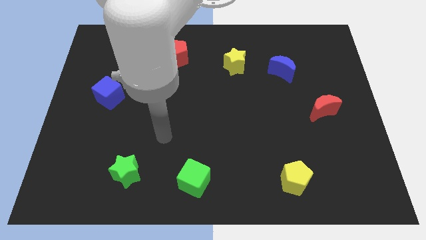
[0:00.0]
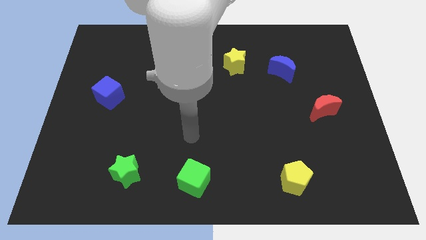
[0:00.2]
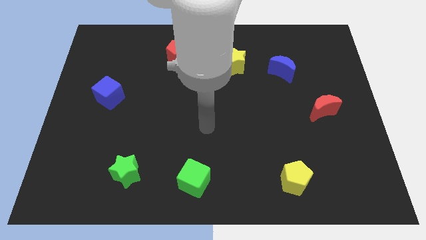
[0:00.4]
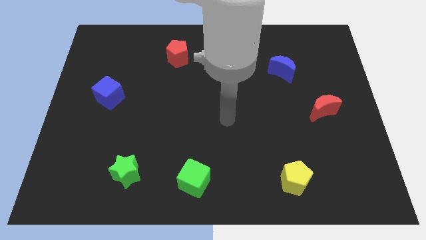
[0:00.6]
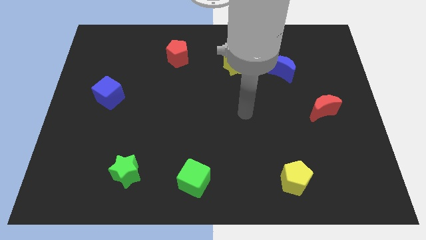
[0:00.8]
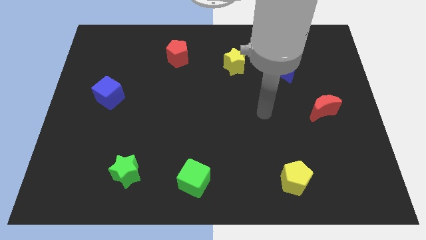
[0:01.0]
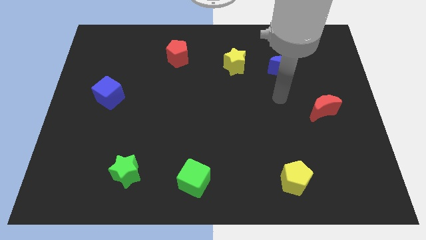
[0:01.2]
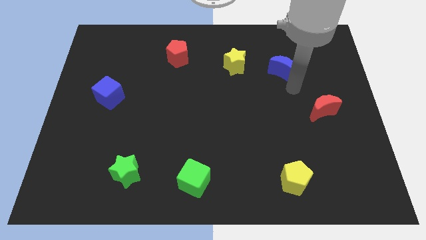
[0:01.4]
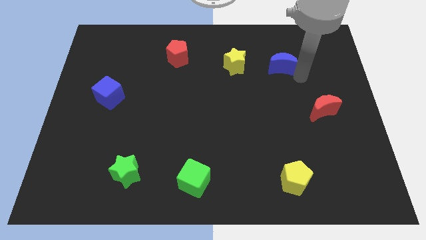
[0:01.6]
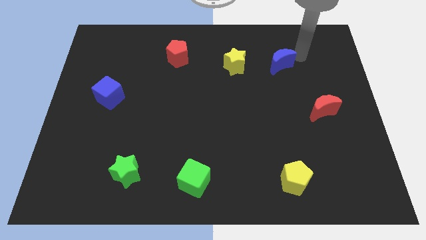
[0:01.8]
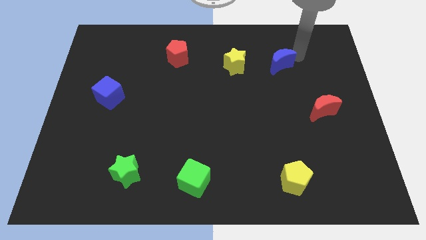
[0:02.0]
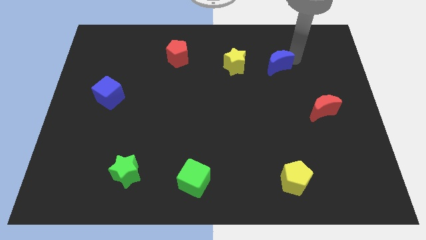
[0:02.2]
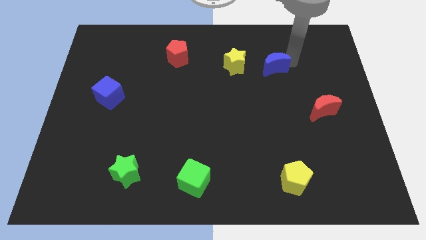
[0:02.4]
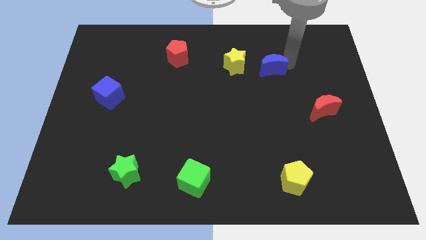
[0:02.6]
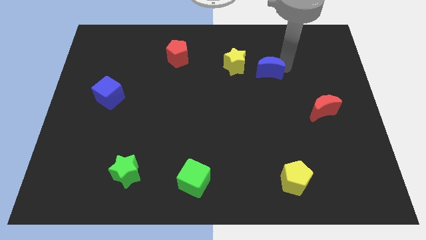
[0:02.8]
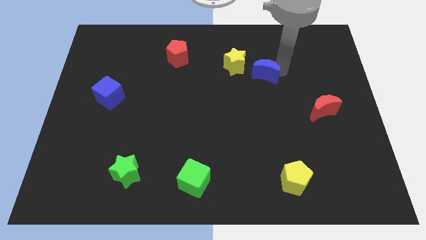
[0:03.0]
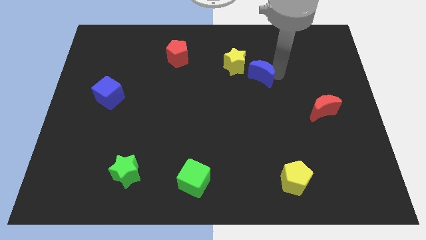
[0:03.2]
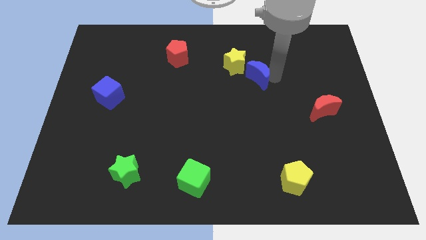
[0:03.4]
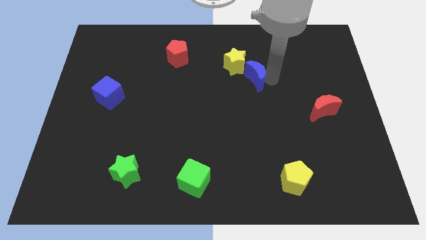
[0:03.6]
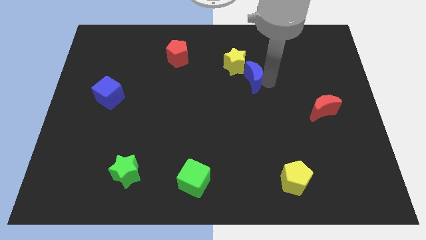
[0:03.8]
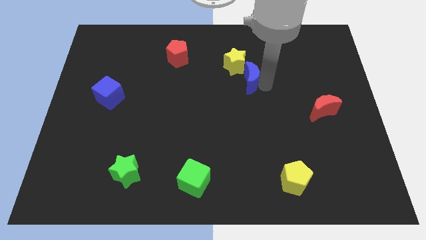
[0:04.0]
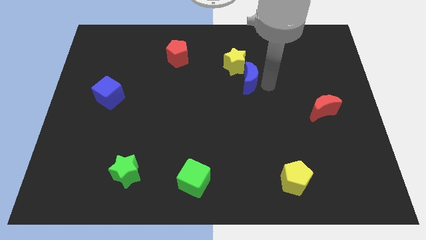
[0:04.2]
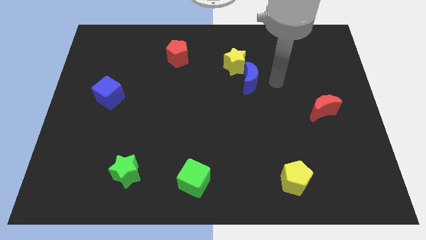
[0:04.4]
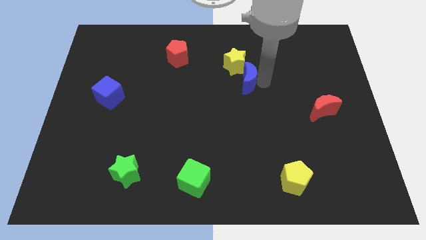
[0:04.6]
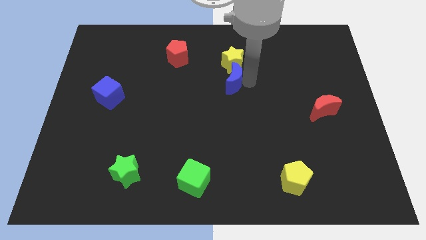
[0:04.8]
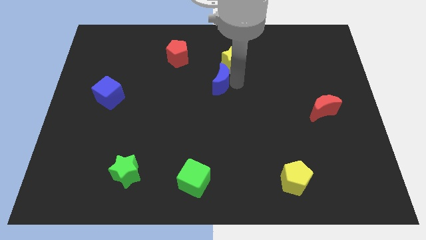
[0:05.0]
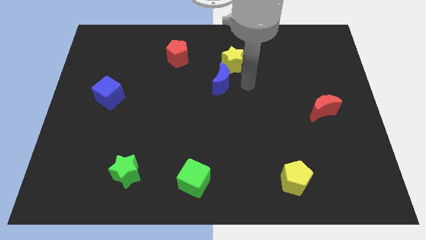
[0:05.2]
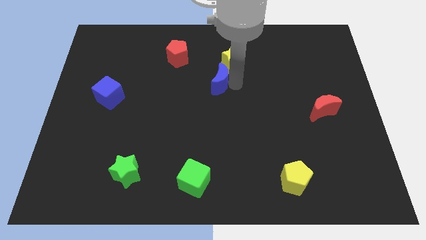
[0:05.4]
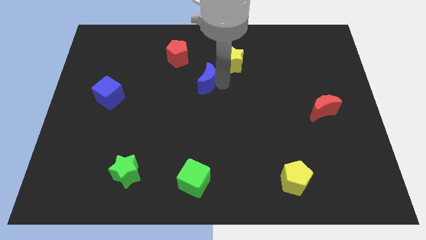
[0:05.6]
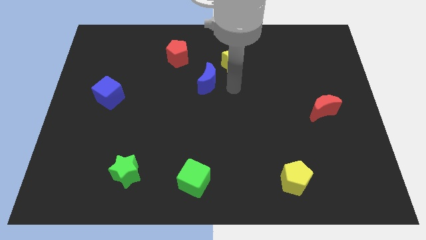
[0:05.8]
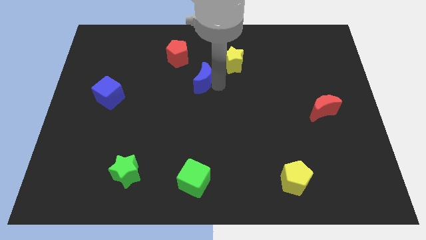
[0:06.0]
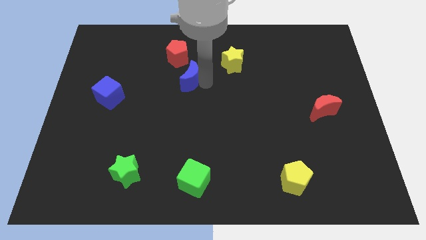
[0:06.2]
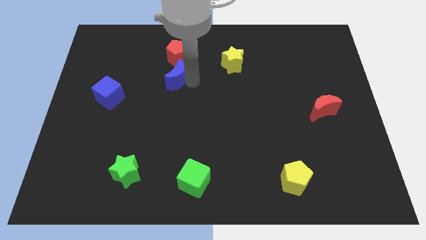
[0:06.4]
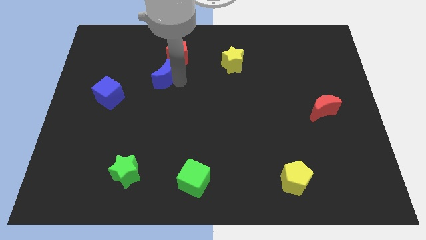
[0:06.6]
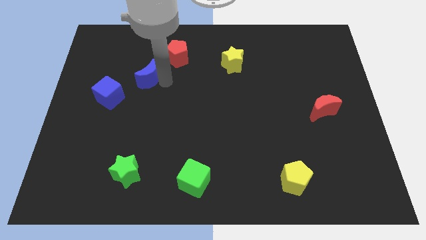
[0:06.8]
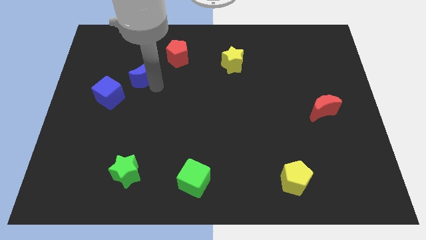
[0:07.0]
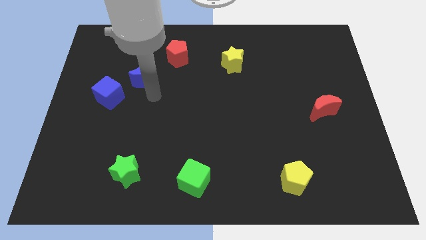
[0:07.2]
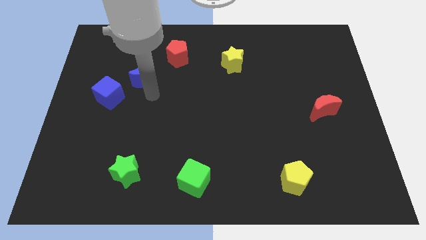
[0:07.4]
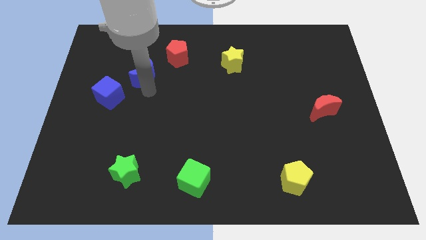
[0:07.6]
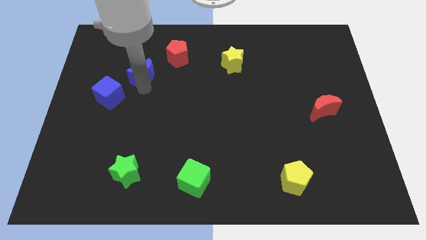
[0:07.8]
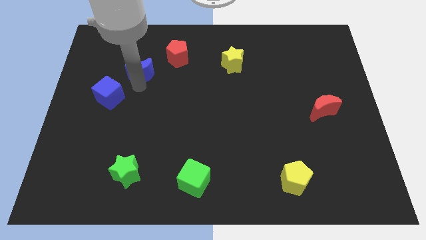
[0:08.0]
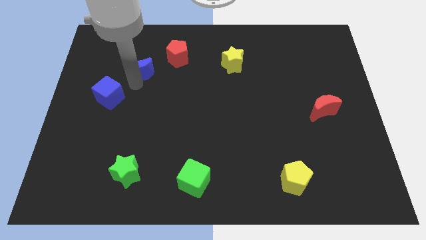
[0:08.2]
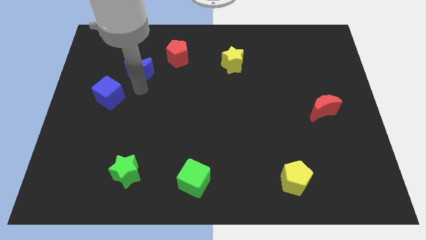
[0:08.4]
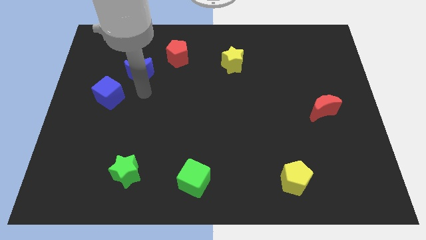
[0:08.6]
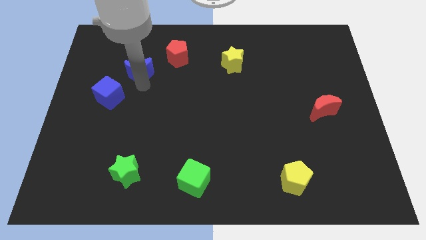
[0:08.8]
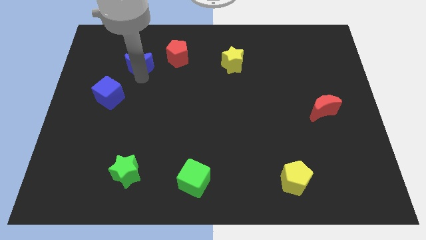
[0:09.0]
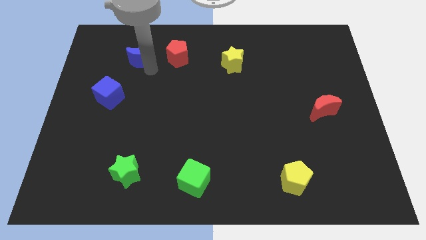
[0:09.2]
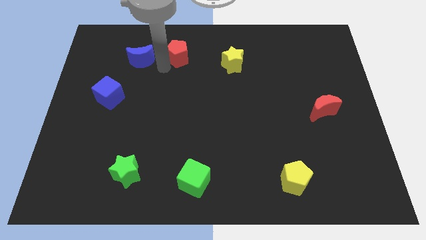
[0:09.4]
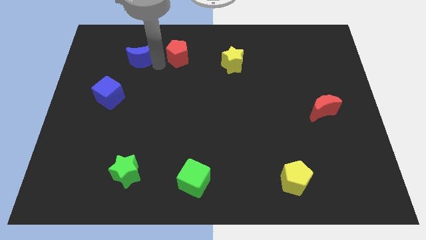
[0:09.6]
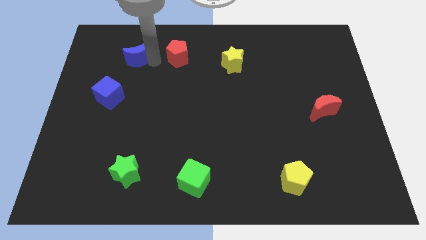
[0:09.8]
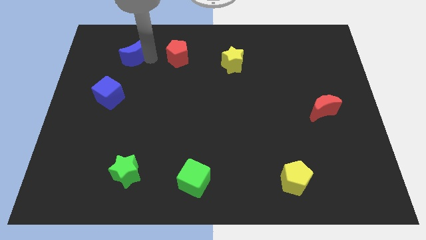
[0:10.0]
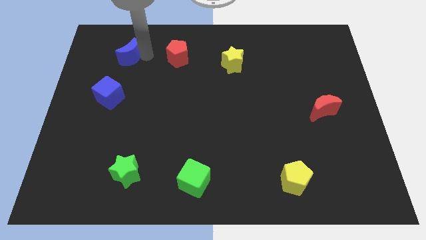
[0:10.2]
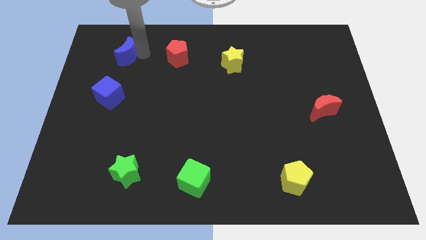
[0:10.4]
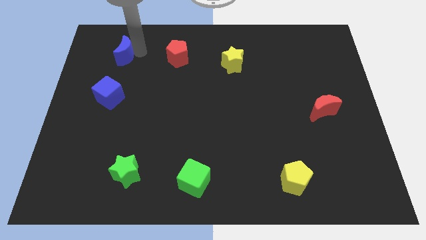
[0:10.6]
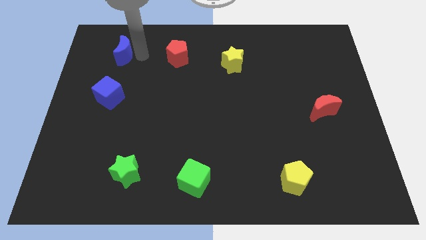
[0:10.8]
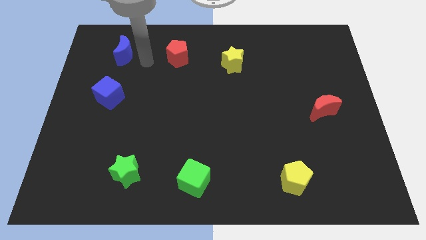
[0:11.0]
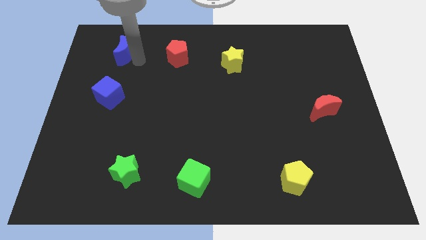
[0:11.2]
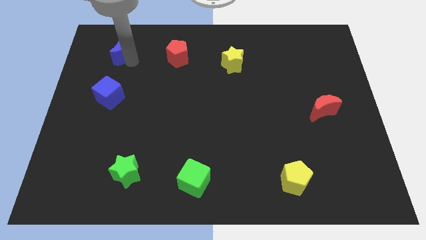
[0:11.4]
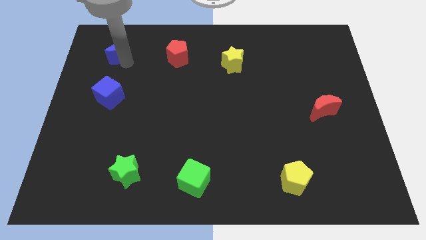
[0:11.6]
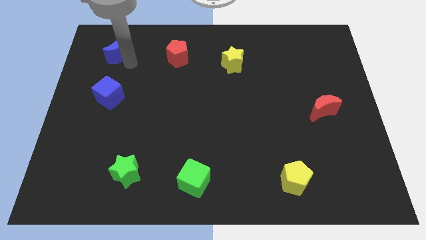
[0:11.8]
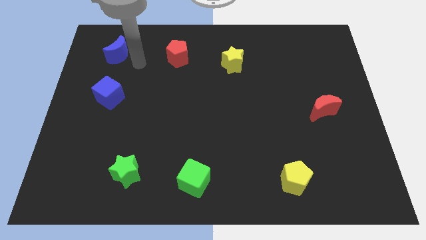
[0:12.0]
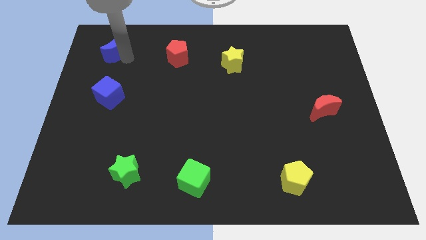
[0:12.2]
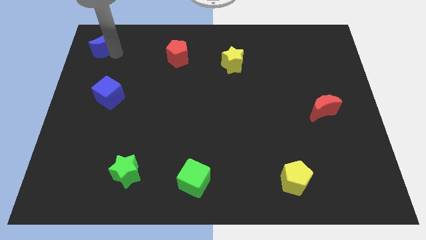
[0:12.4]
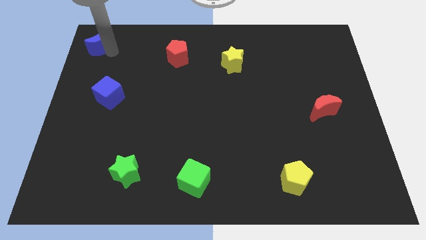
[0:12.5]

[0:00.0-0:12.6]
move the blue moon to the top left
